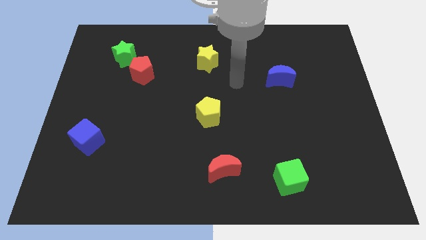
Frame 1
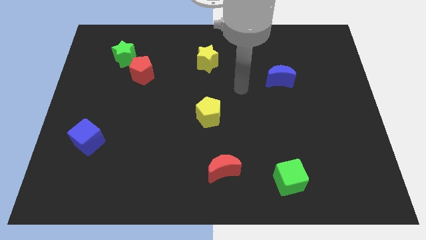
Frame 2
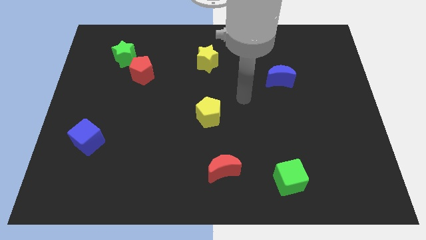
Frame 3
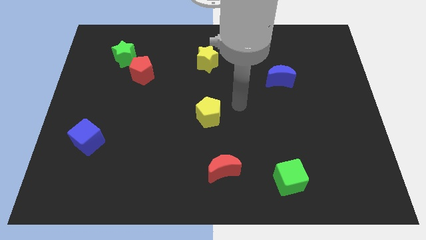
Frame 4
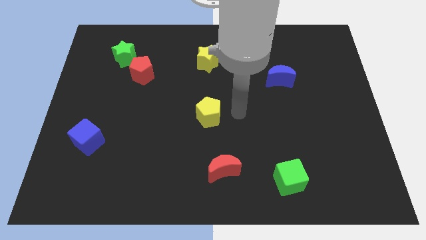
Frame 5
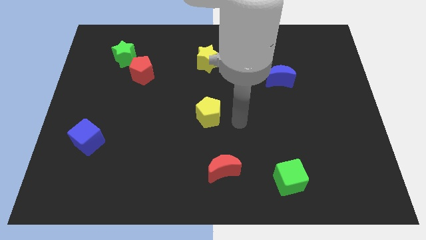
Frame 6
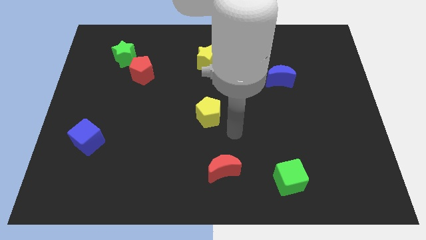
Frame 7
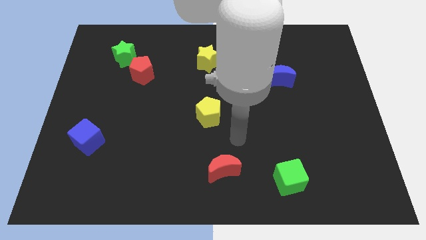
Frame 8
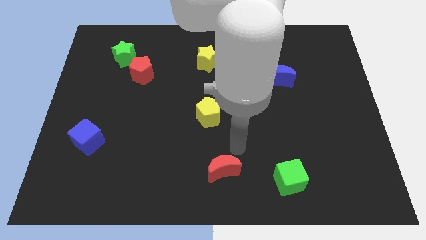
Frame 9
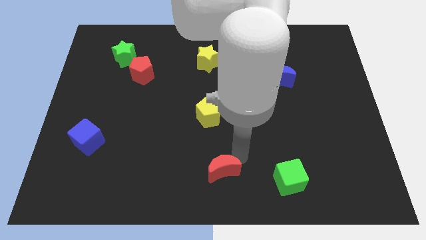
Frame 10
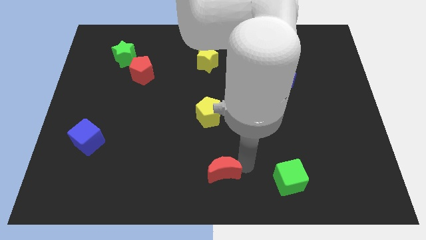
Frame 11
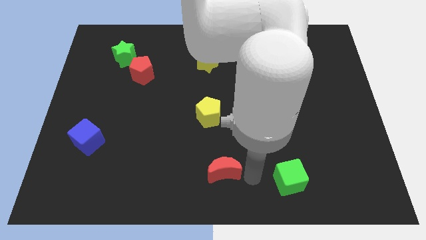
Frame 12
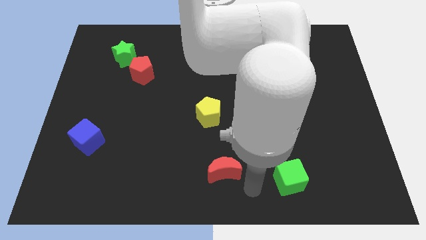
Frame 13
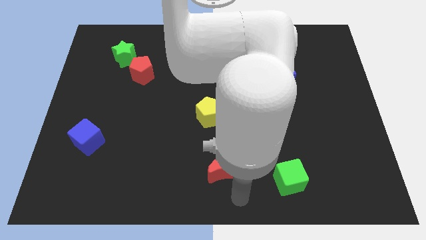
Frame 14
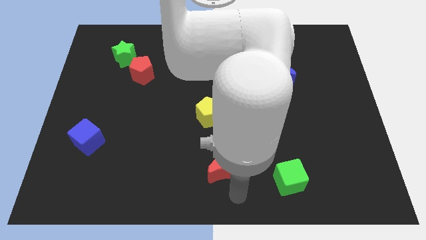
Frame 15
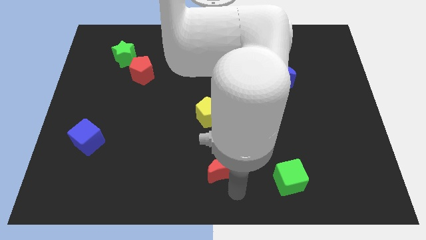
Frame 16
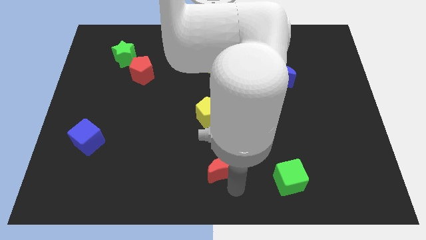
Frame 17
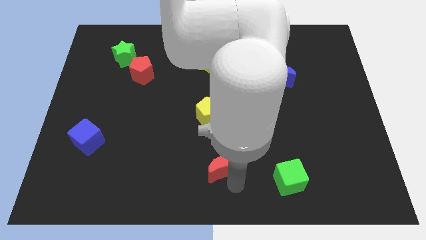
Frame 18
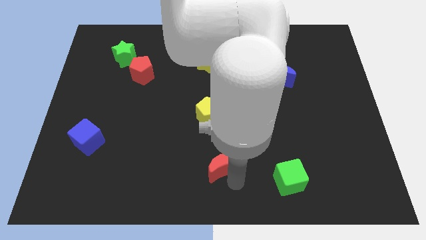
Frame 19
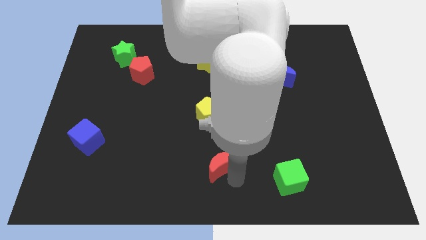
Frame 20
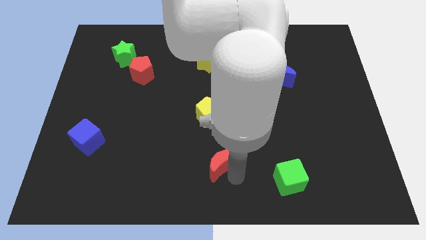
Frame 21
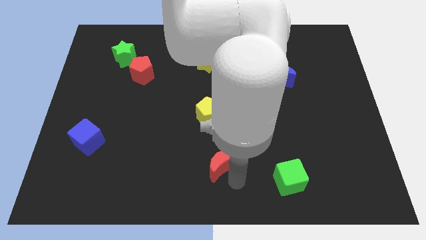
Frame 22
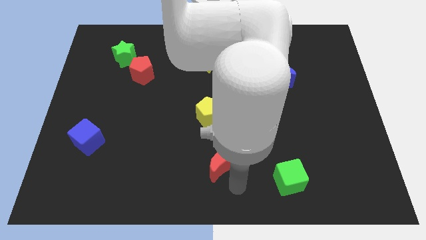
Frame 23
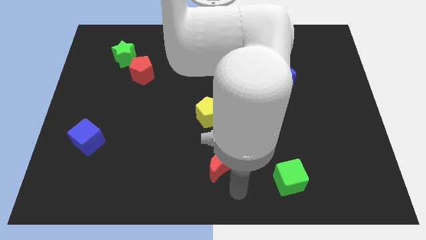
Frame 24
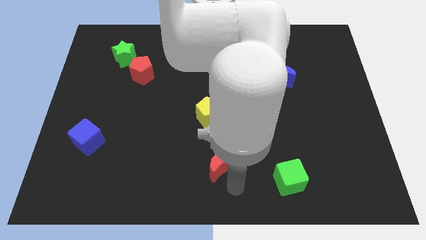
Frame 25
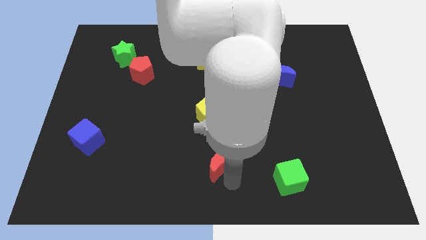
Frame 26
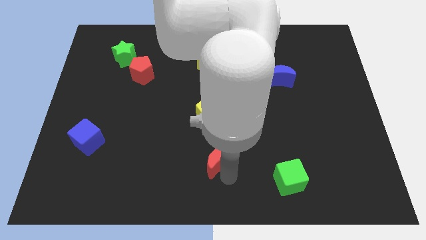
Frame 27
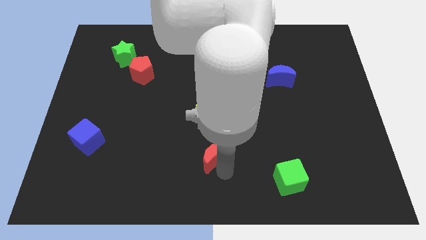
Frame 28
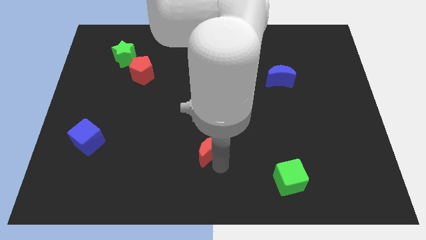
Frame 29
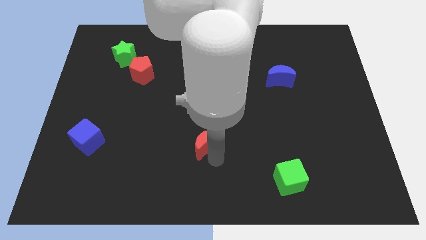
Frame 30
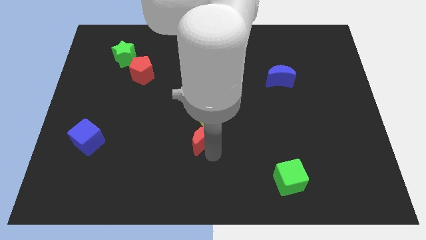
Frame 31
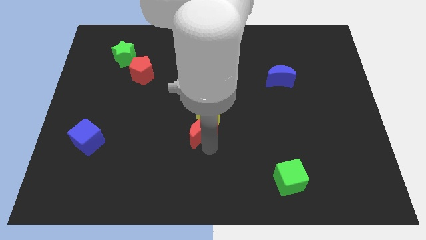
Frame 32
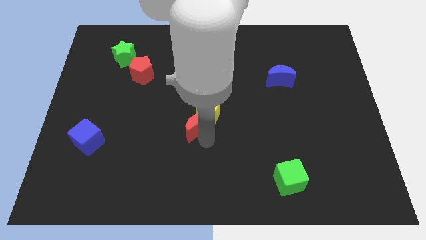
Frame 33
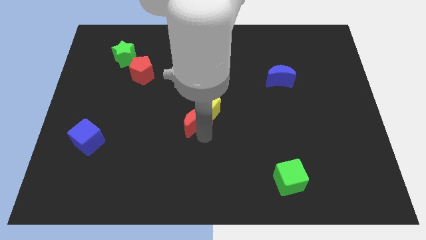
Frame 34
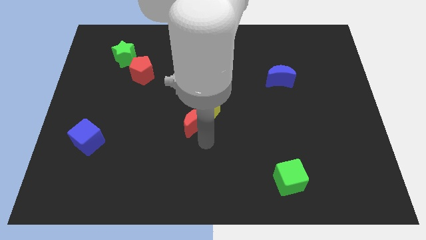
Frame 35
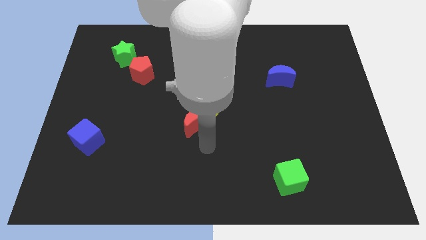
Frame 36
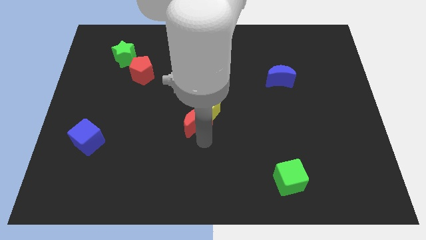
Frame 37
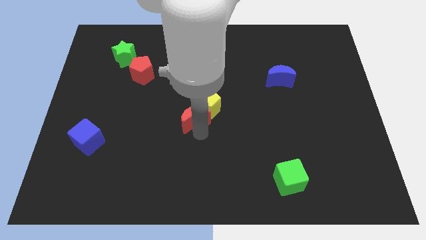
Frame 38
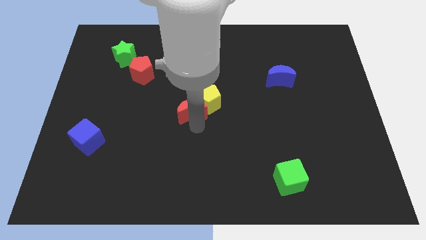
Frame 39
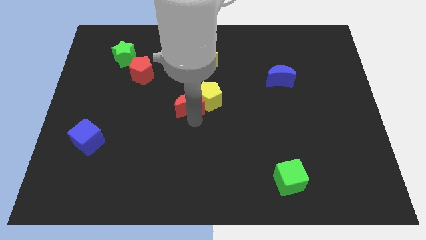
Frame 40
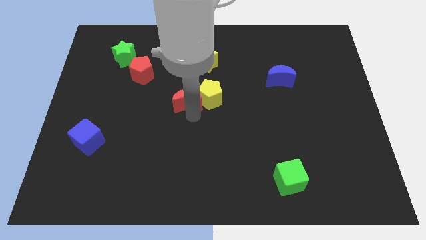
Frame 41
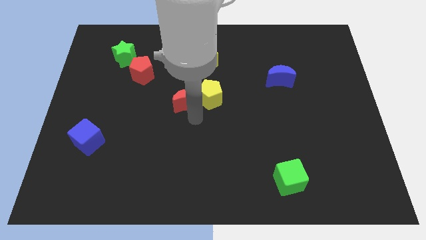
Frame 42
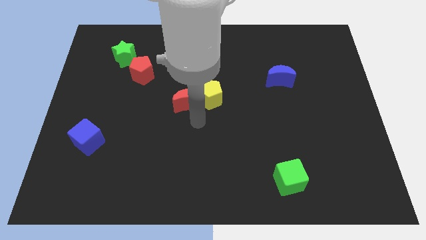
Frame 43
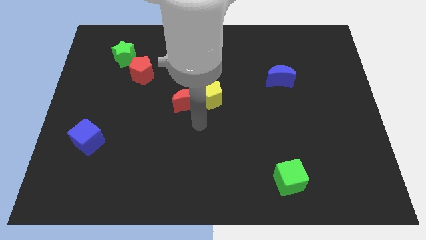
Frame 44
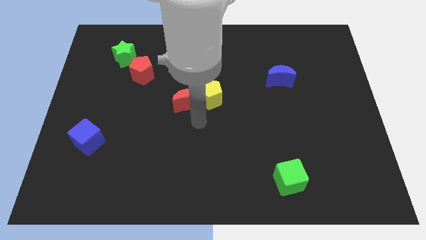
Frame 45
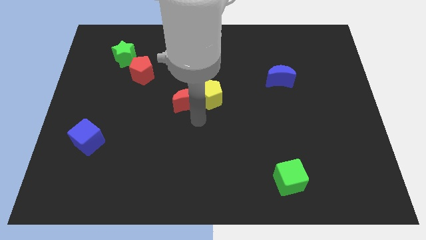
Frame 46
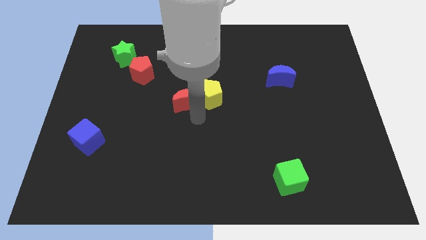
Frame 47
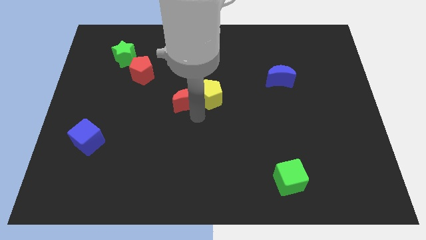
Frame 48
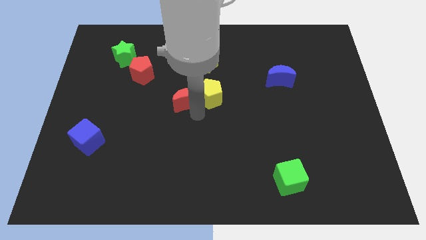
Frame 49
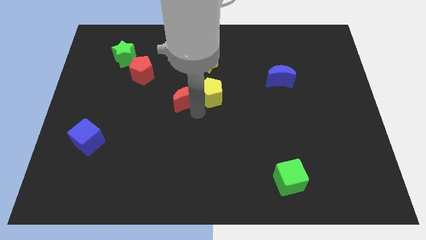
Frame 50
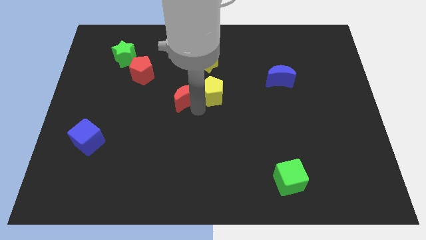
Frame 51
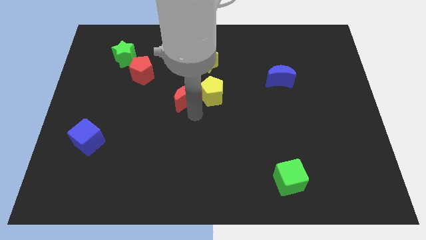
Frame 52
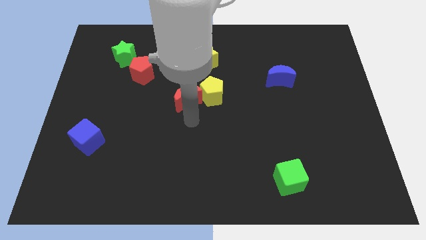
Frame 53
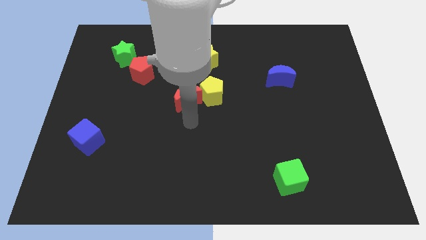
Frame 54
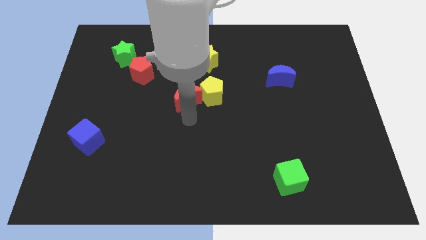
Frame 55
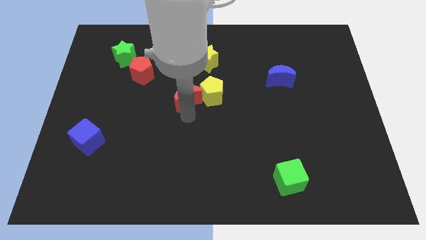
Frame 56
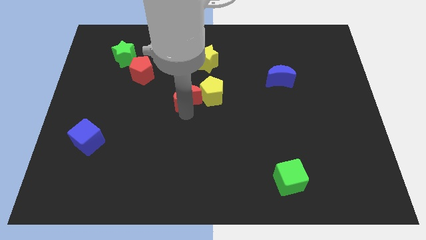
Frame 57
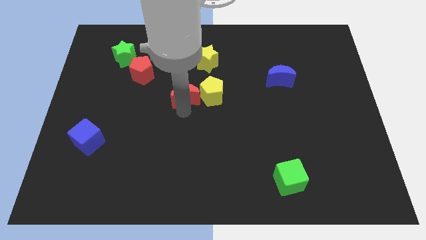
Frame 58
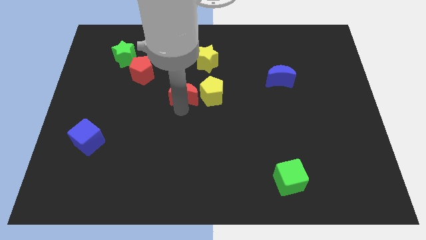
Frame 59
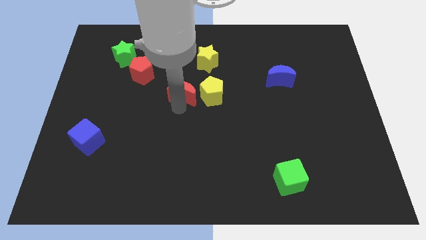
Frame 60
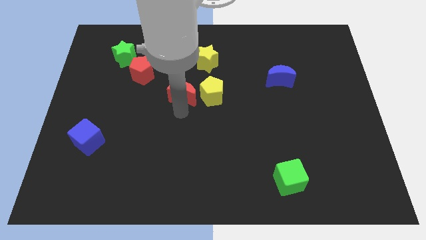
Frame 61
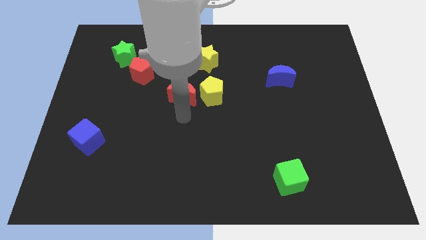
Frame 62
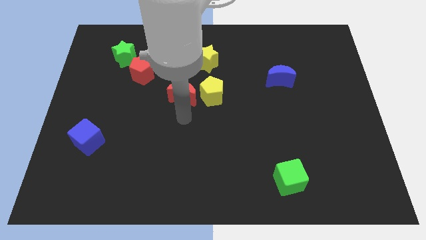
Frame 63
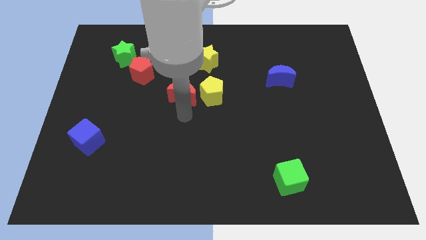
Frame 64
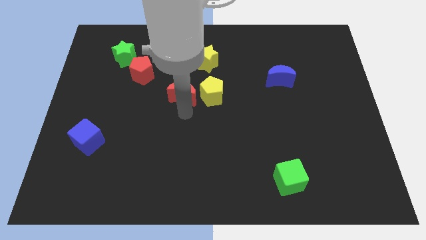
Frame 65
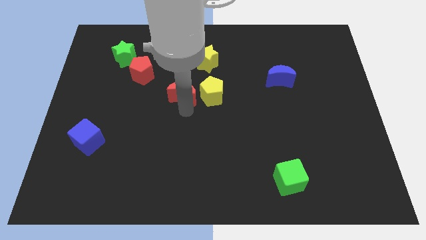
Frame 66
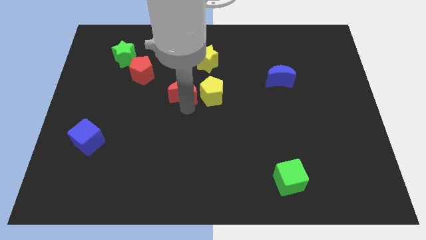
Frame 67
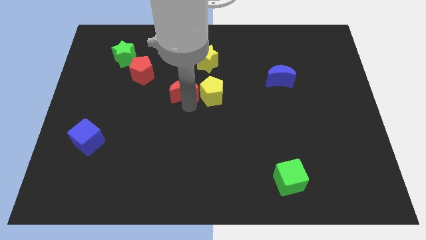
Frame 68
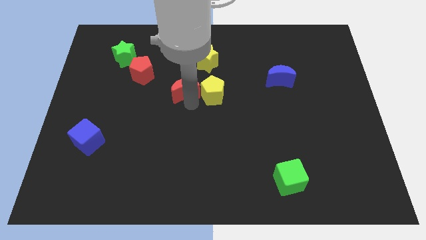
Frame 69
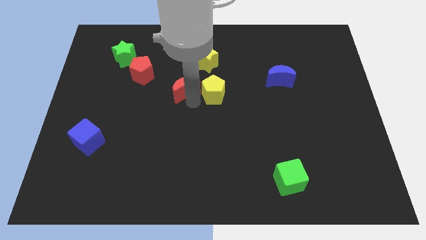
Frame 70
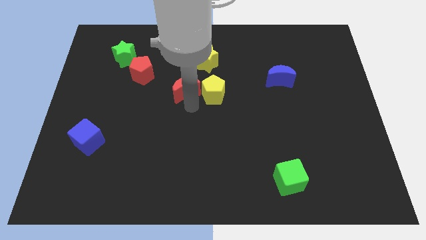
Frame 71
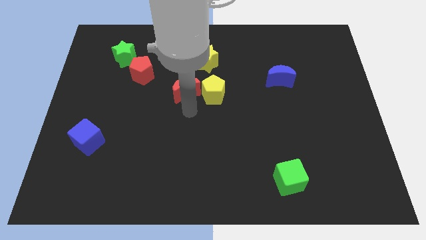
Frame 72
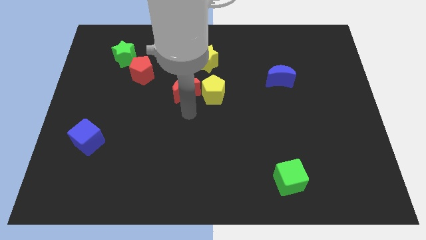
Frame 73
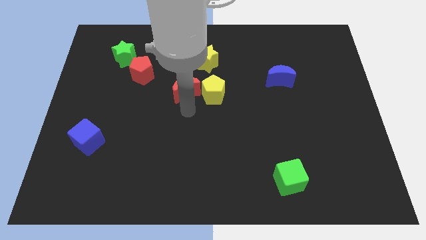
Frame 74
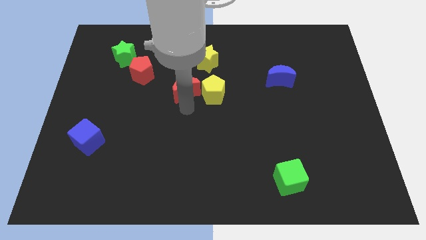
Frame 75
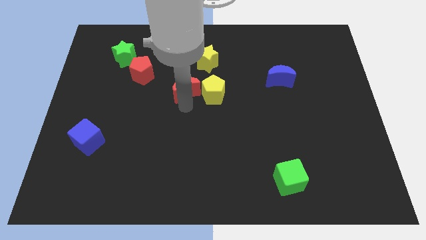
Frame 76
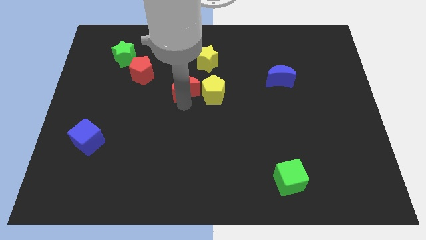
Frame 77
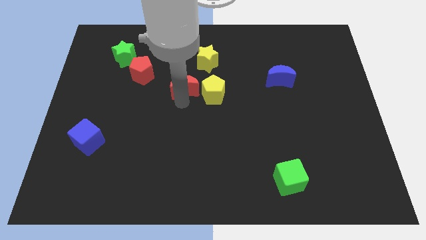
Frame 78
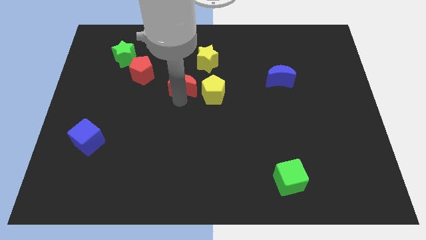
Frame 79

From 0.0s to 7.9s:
slide the red moon just right of the red pentagon
